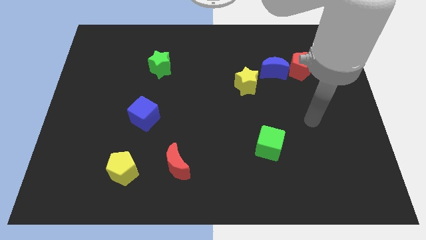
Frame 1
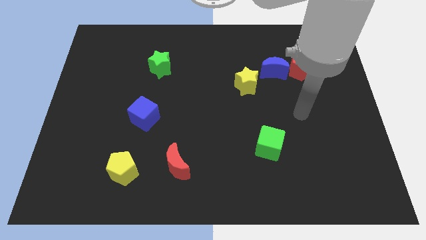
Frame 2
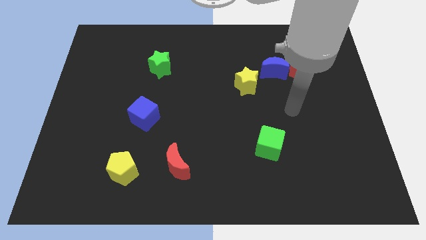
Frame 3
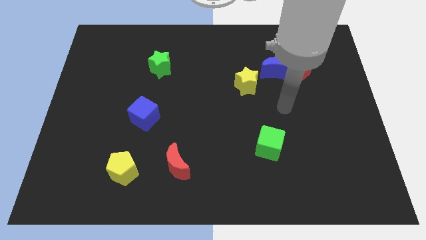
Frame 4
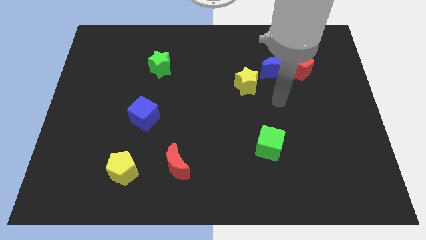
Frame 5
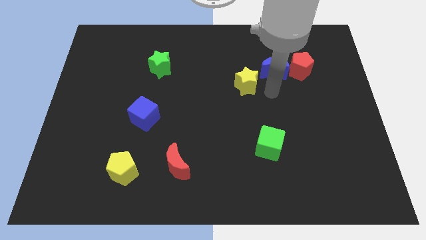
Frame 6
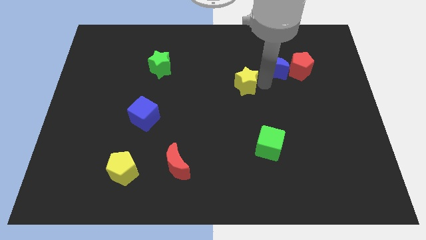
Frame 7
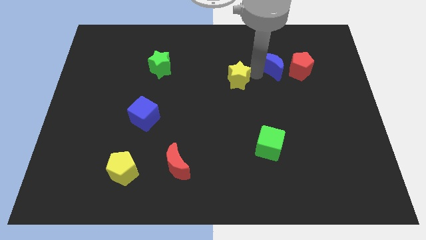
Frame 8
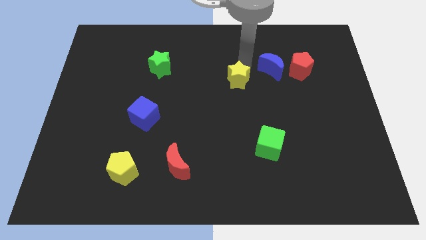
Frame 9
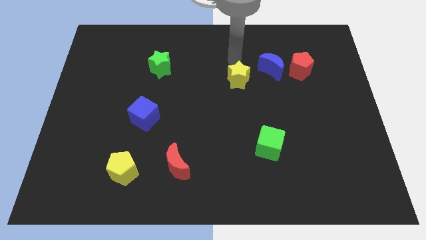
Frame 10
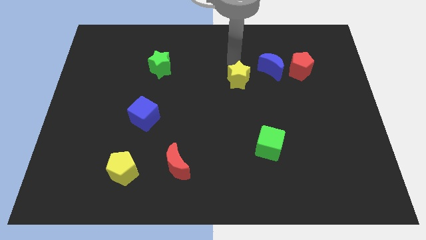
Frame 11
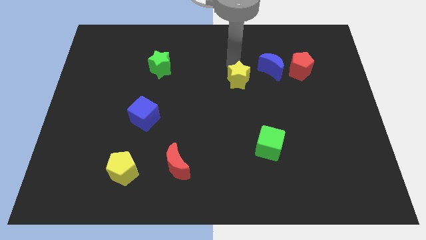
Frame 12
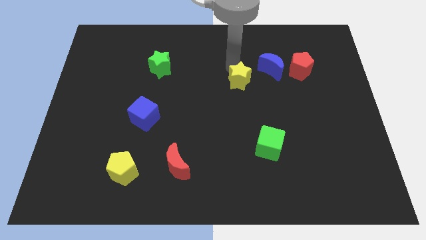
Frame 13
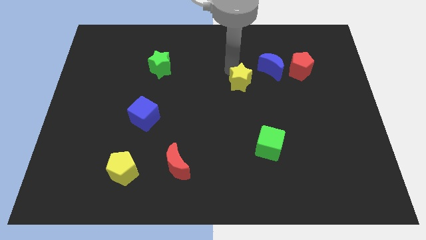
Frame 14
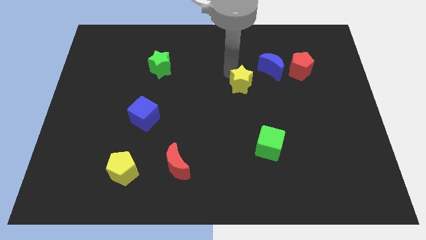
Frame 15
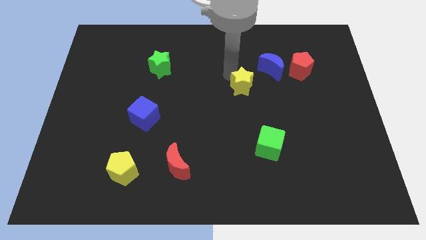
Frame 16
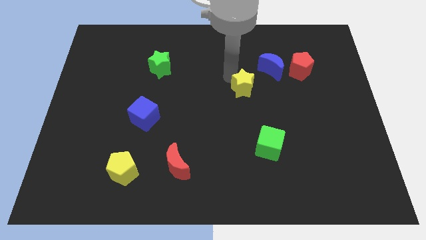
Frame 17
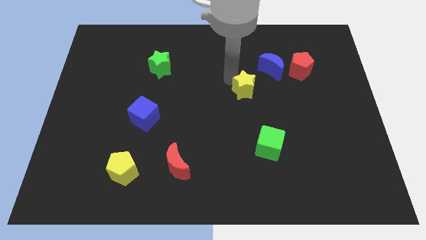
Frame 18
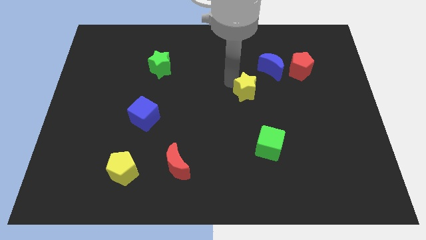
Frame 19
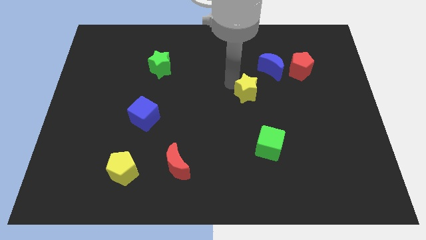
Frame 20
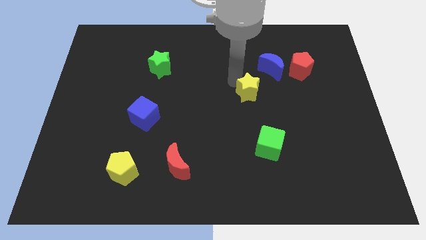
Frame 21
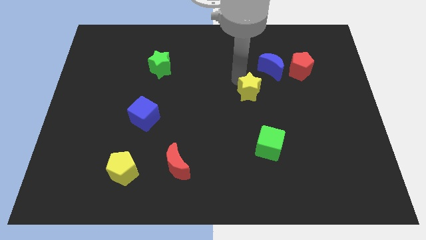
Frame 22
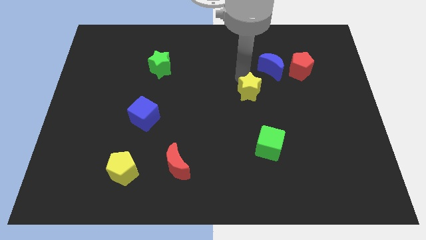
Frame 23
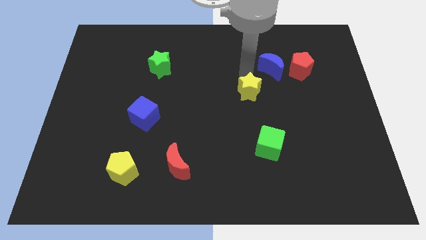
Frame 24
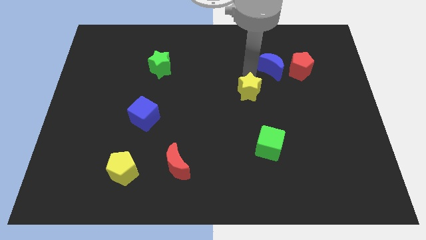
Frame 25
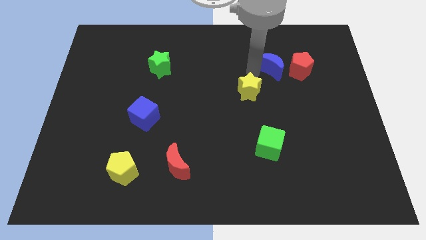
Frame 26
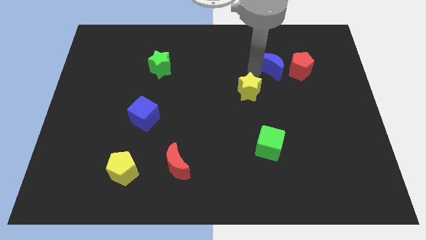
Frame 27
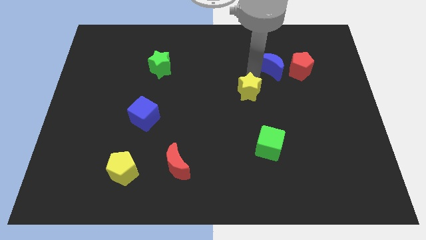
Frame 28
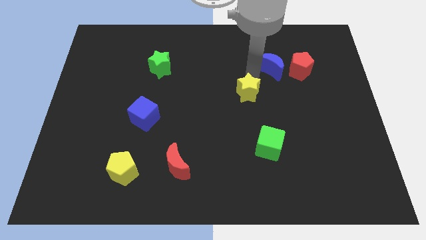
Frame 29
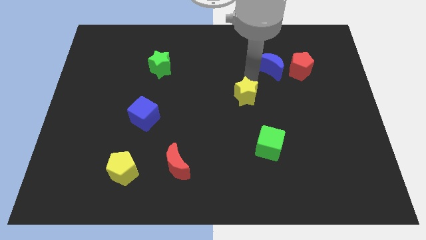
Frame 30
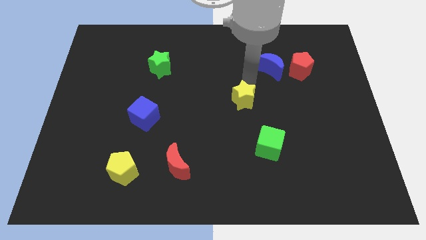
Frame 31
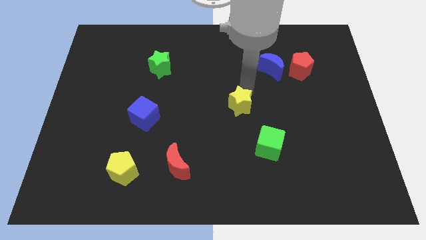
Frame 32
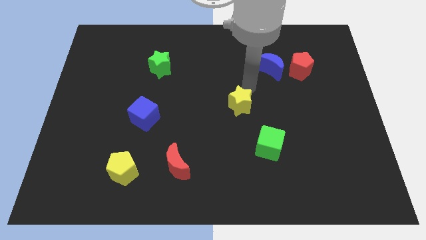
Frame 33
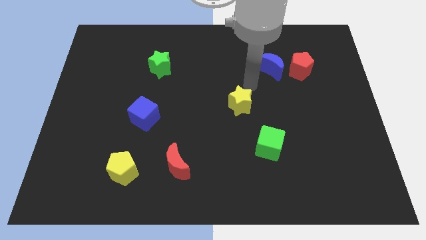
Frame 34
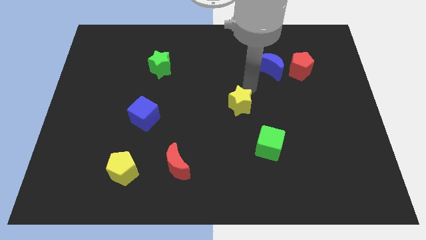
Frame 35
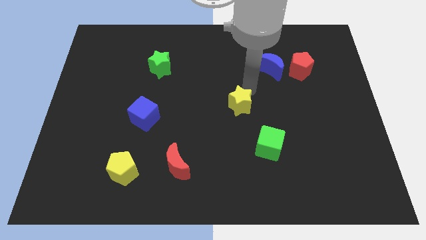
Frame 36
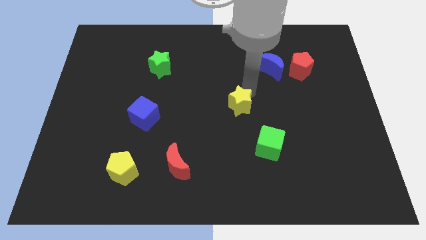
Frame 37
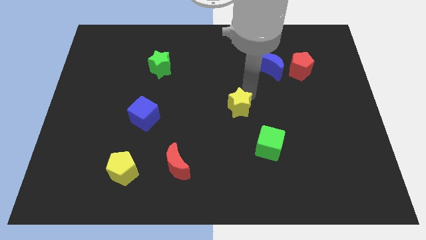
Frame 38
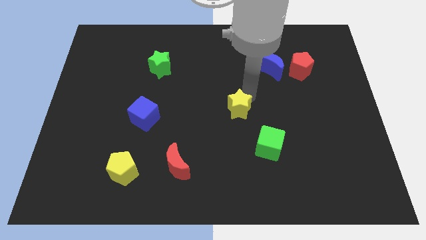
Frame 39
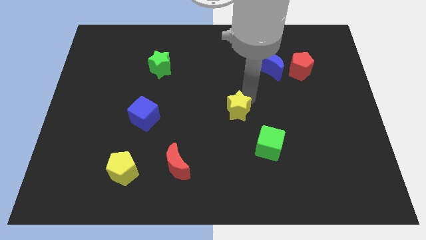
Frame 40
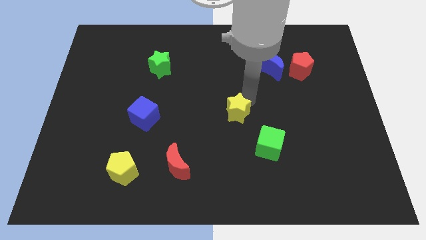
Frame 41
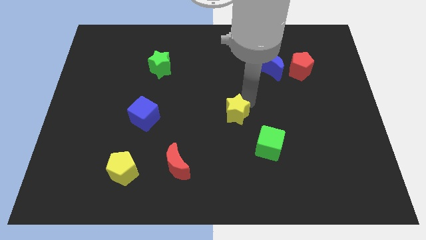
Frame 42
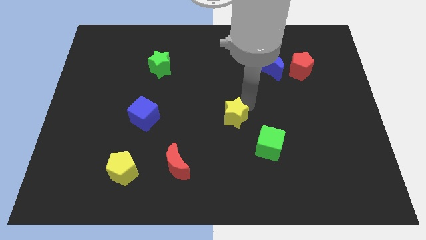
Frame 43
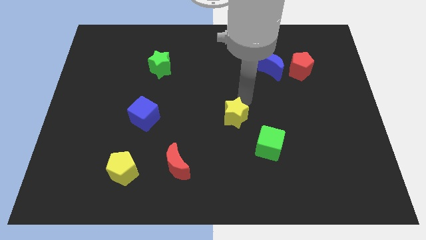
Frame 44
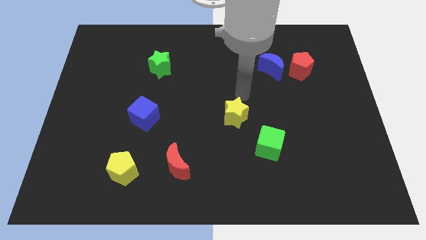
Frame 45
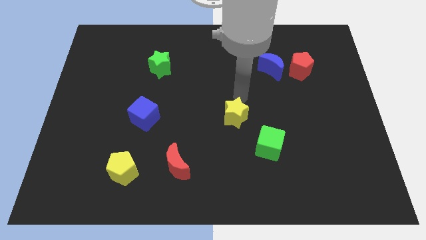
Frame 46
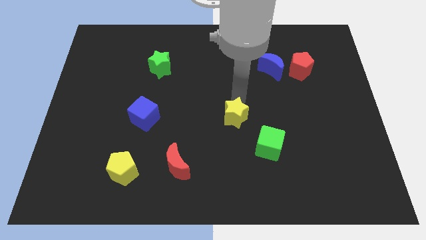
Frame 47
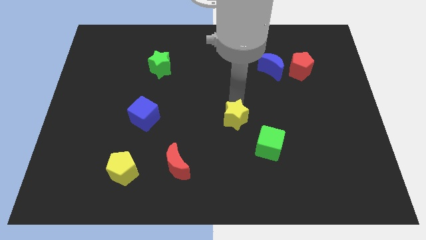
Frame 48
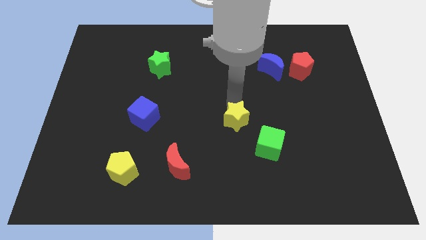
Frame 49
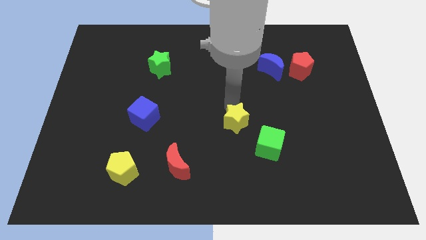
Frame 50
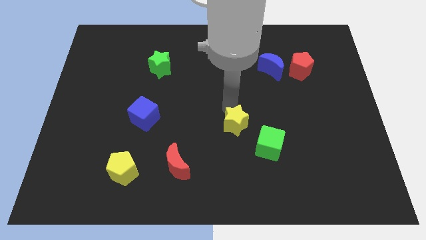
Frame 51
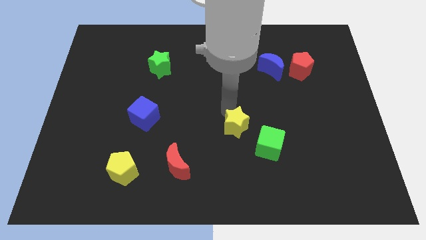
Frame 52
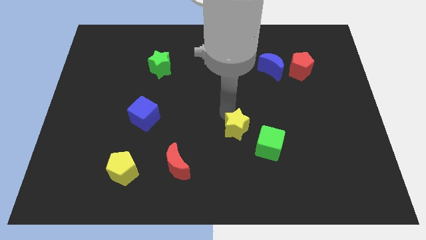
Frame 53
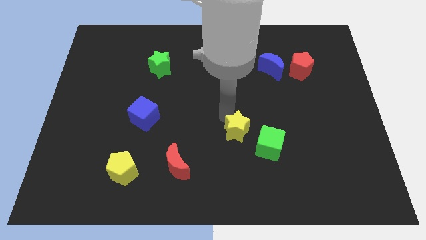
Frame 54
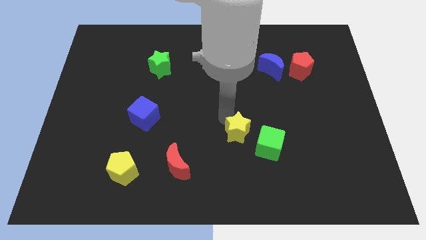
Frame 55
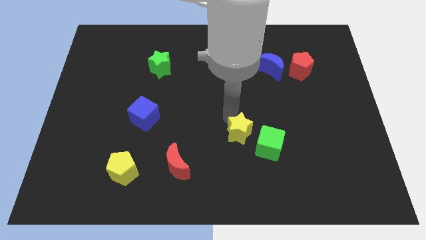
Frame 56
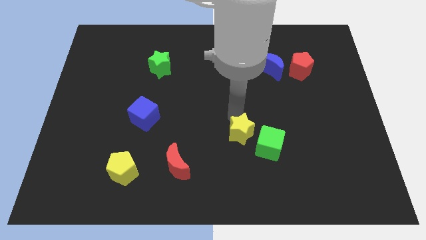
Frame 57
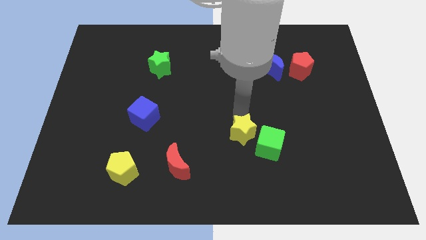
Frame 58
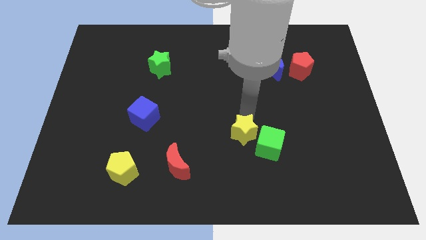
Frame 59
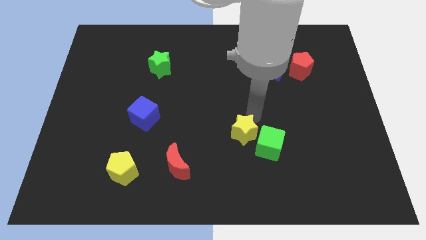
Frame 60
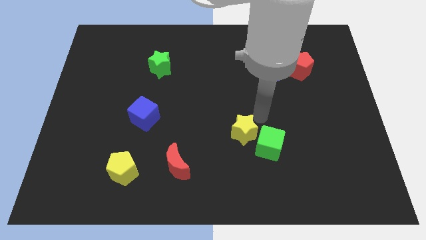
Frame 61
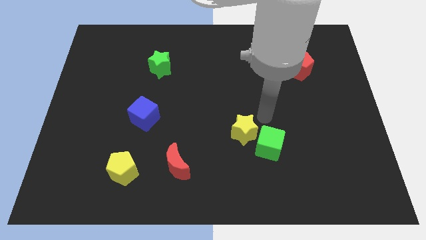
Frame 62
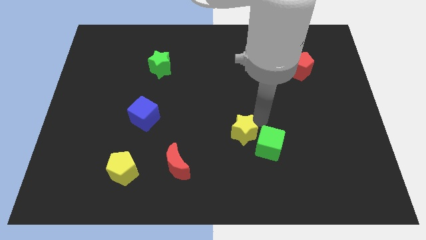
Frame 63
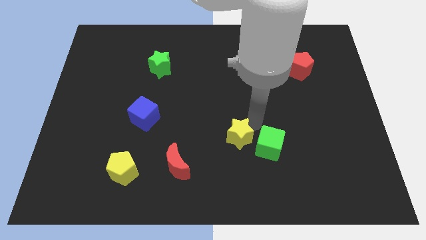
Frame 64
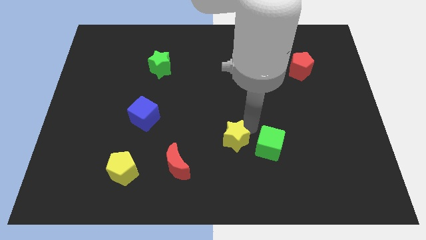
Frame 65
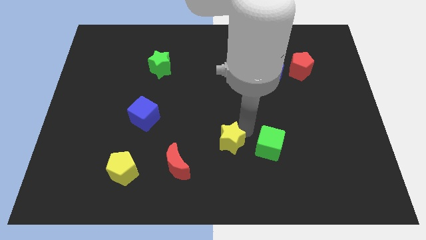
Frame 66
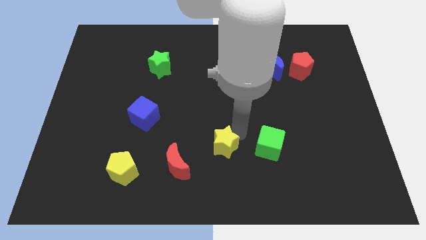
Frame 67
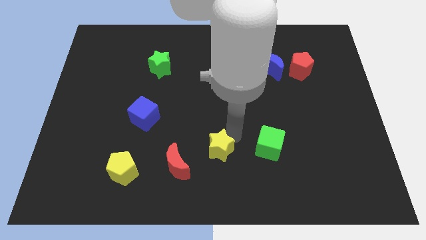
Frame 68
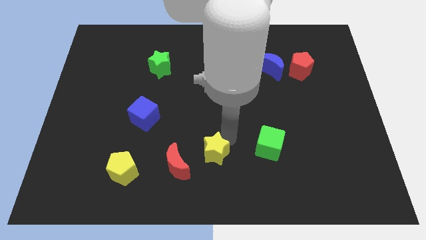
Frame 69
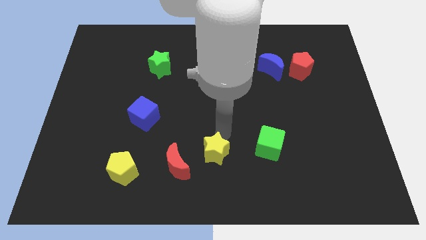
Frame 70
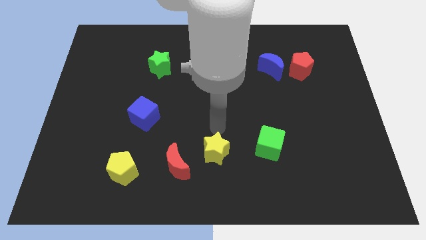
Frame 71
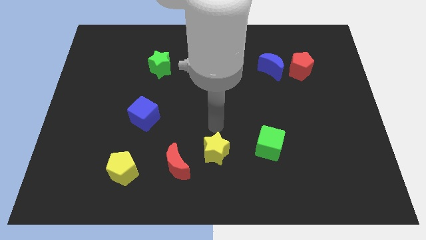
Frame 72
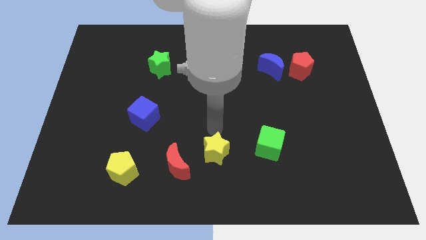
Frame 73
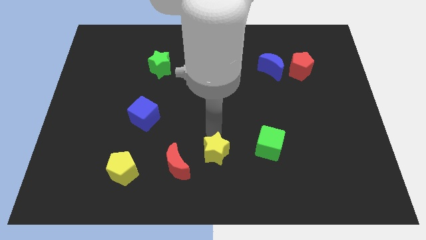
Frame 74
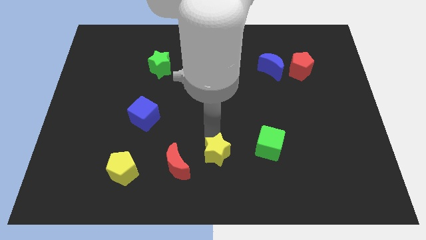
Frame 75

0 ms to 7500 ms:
push the yellow star to the bottom
